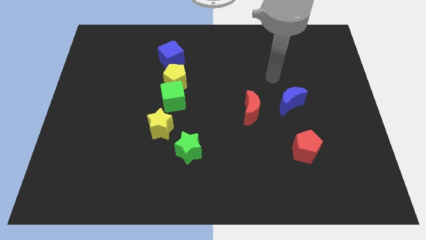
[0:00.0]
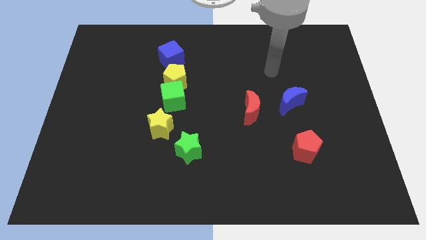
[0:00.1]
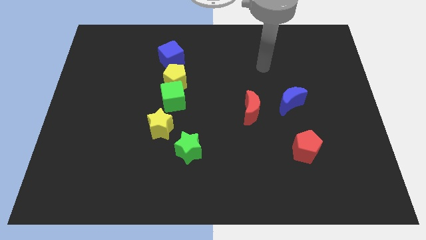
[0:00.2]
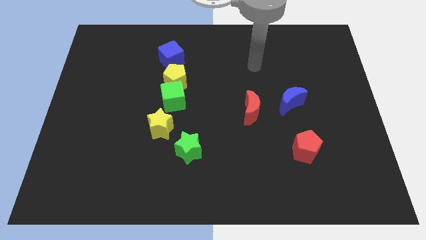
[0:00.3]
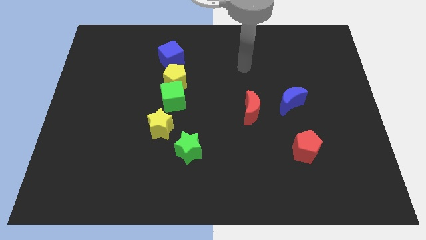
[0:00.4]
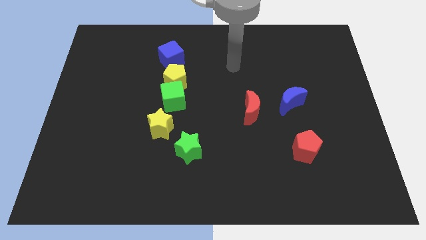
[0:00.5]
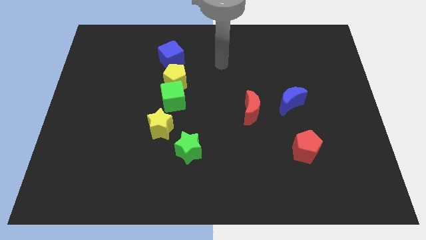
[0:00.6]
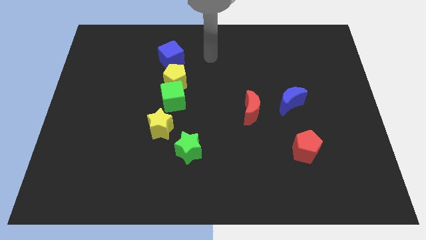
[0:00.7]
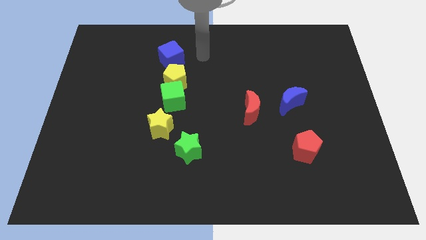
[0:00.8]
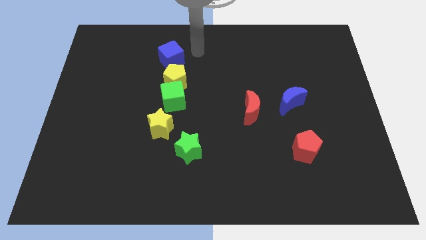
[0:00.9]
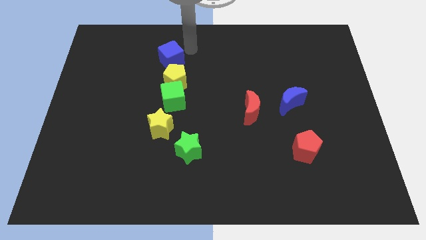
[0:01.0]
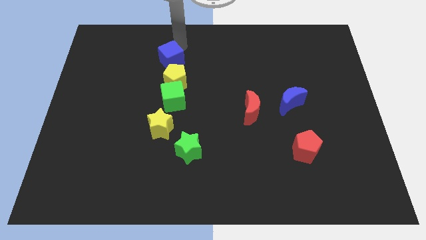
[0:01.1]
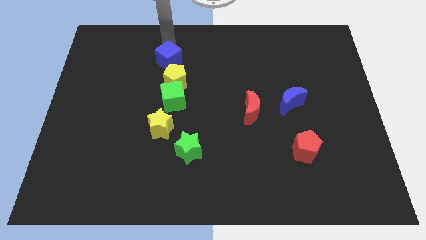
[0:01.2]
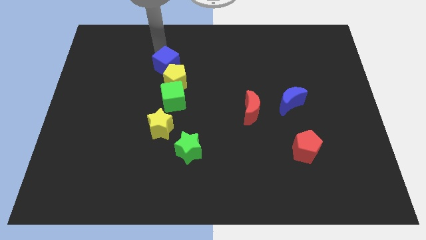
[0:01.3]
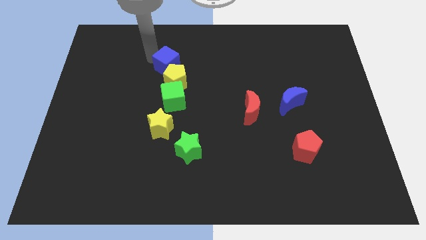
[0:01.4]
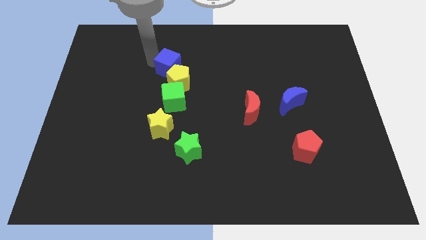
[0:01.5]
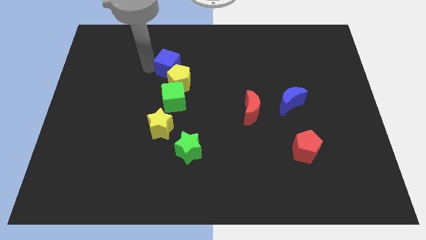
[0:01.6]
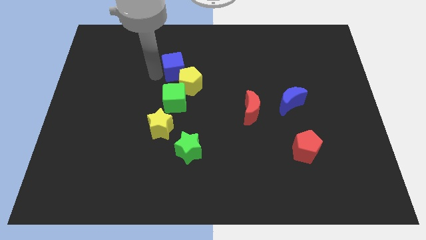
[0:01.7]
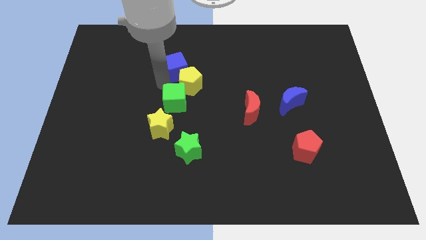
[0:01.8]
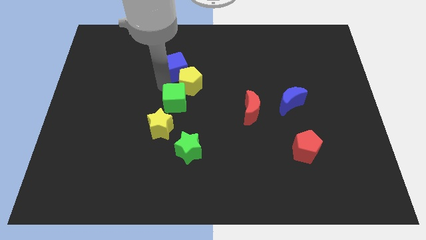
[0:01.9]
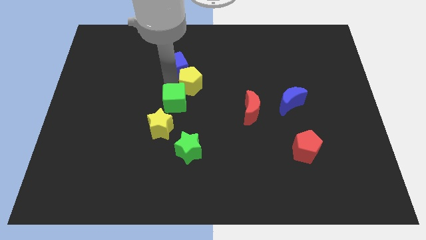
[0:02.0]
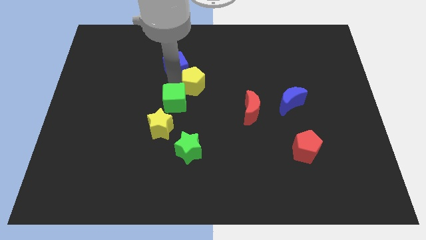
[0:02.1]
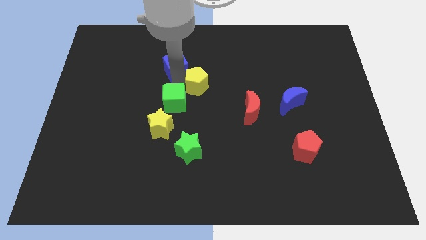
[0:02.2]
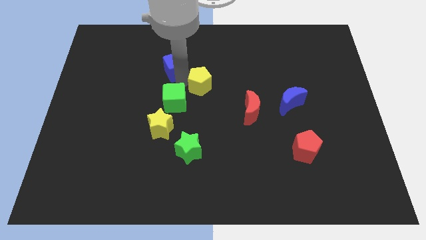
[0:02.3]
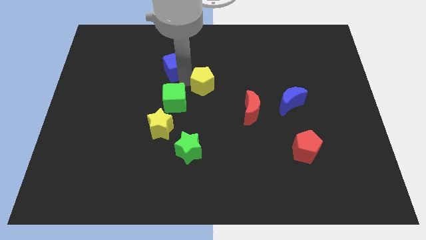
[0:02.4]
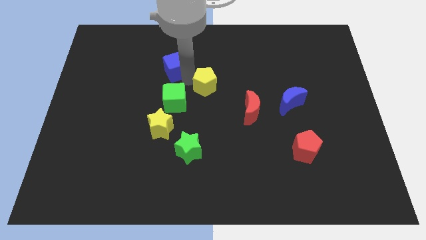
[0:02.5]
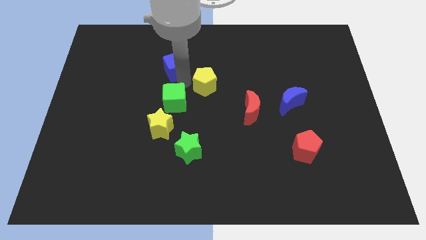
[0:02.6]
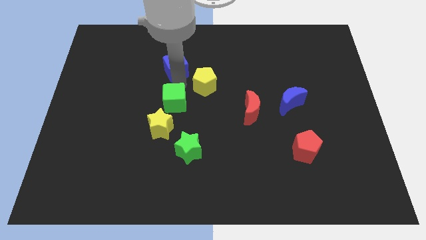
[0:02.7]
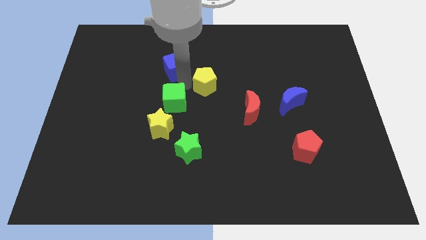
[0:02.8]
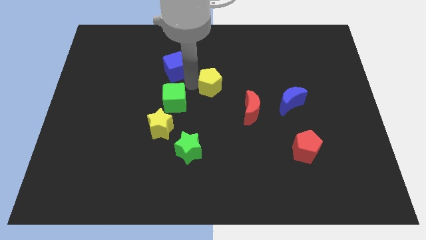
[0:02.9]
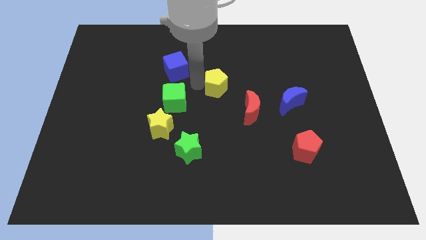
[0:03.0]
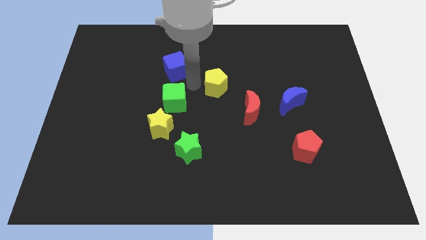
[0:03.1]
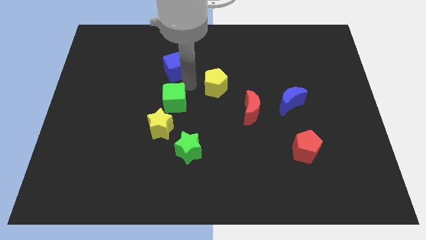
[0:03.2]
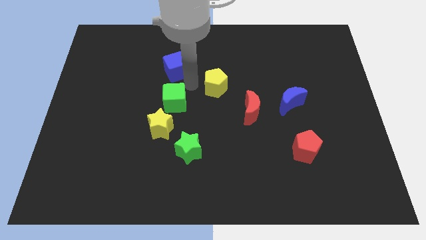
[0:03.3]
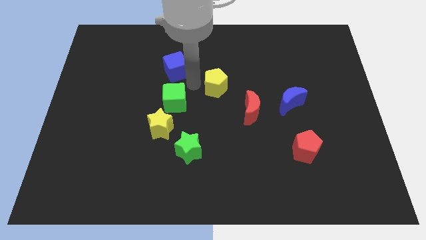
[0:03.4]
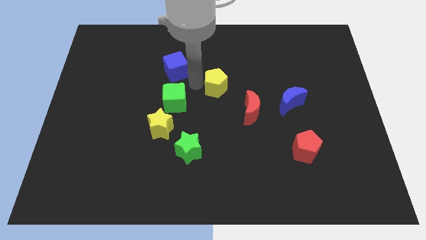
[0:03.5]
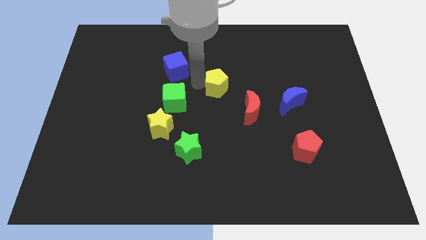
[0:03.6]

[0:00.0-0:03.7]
pull the yellow pentagon apart from the green cube and blue cube

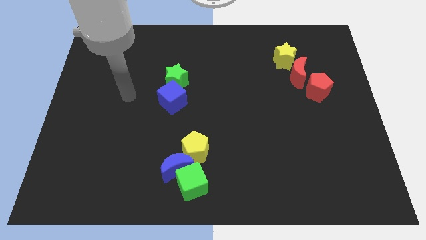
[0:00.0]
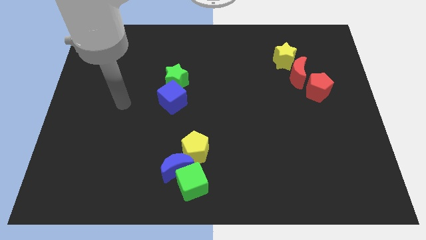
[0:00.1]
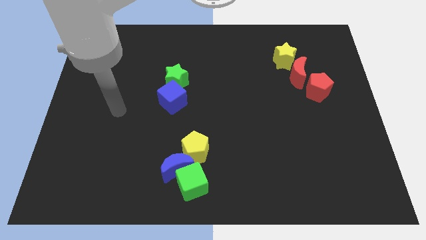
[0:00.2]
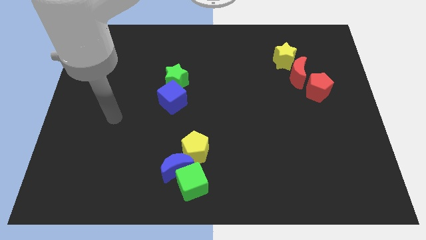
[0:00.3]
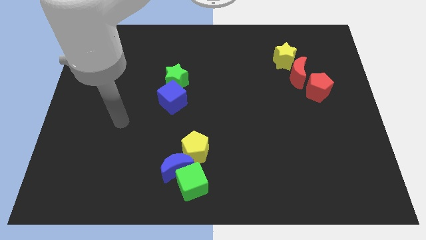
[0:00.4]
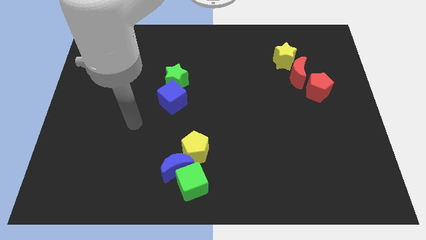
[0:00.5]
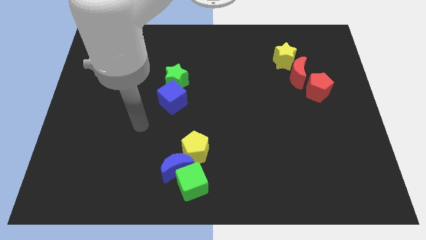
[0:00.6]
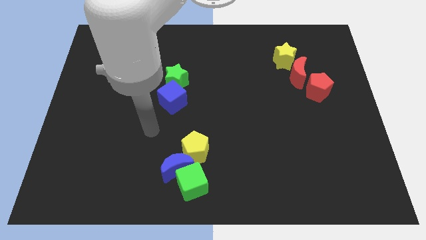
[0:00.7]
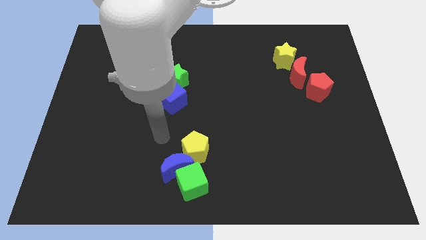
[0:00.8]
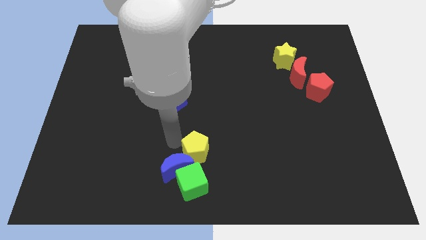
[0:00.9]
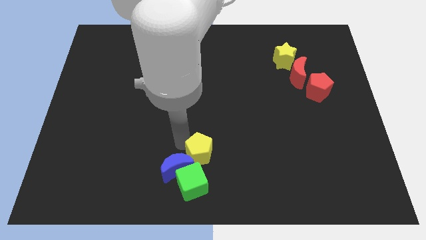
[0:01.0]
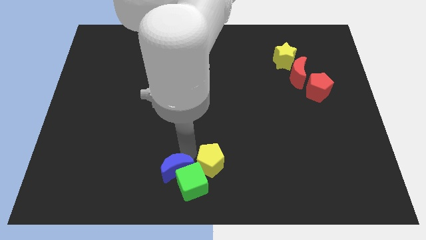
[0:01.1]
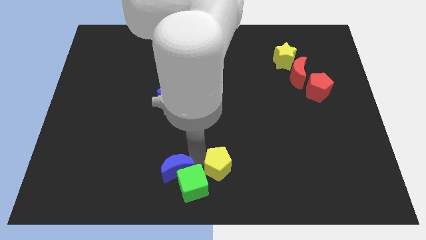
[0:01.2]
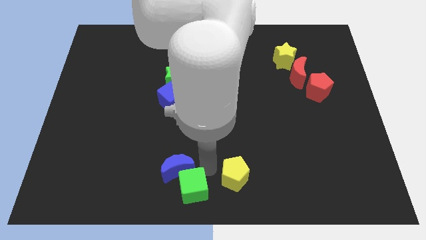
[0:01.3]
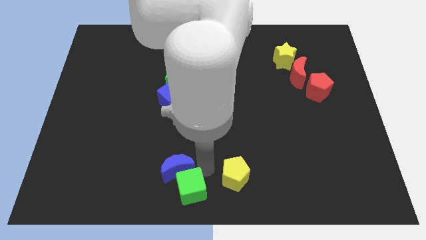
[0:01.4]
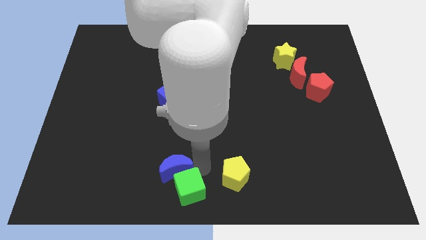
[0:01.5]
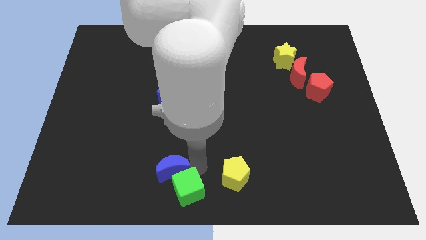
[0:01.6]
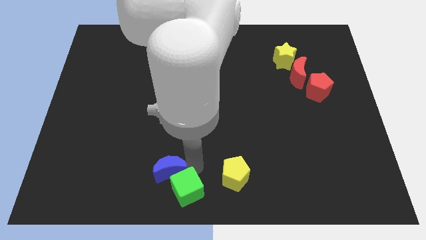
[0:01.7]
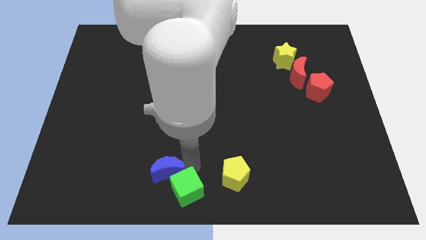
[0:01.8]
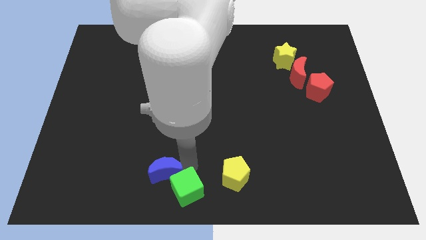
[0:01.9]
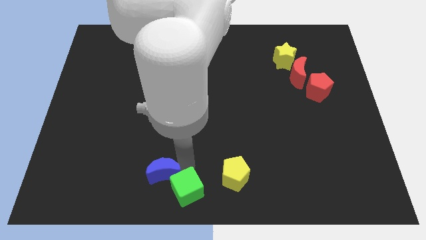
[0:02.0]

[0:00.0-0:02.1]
separate the blue moon from the green cube and yellow pentagon

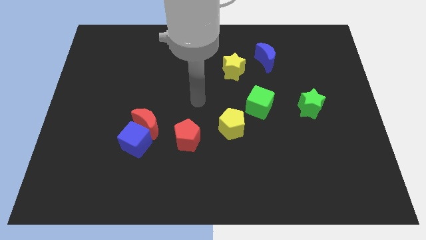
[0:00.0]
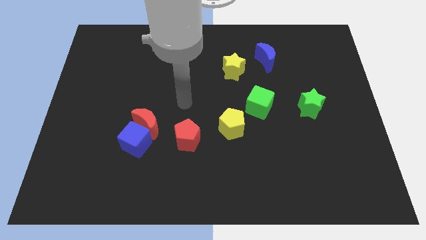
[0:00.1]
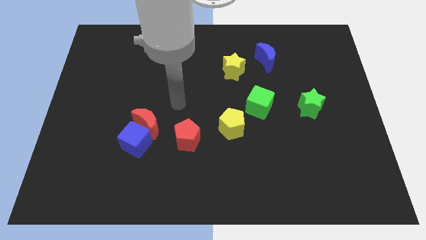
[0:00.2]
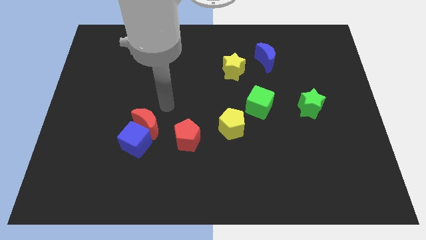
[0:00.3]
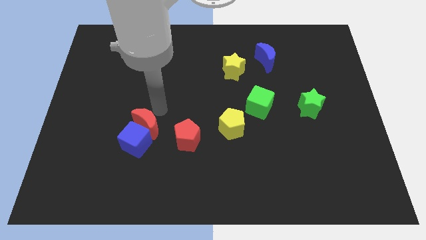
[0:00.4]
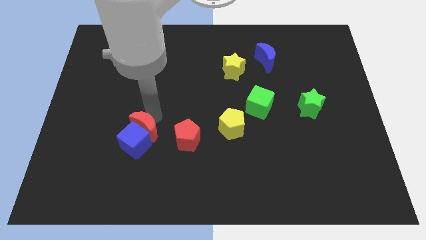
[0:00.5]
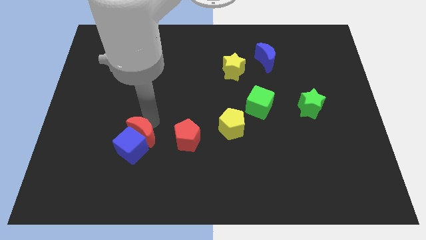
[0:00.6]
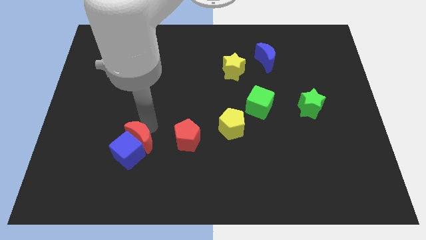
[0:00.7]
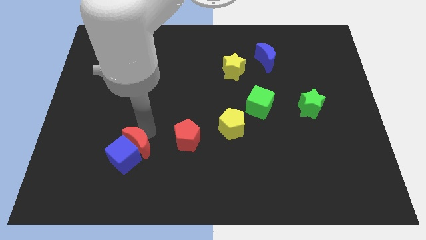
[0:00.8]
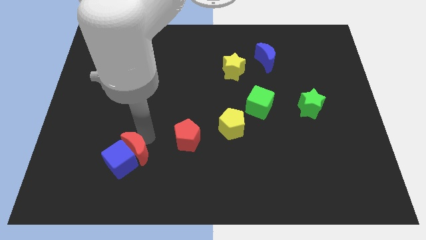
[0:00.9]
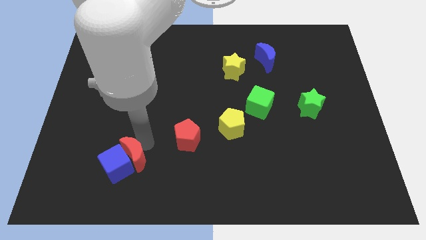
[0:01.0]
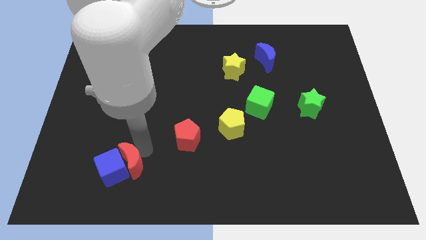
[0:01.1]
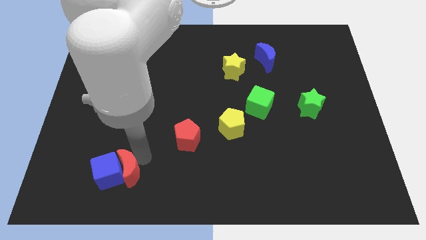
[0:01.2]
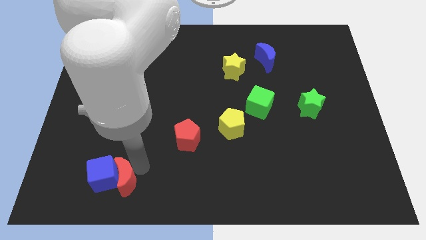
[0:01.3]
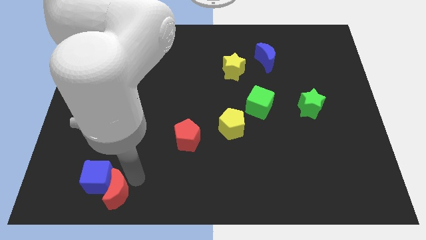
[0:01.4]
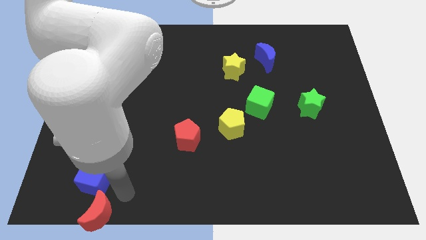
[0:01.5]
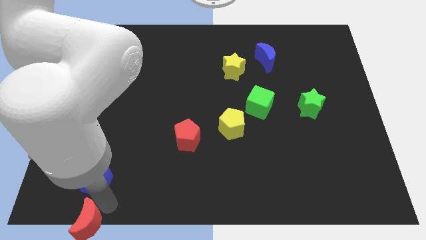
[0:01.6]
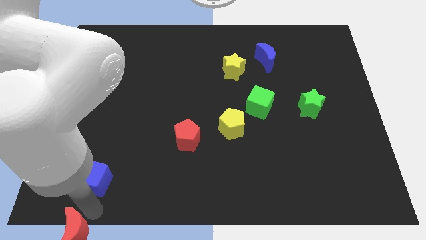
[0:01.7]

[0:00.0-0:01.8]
separate the blue cube from the red moon

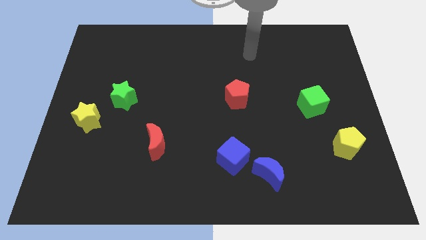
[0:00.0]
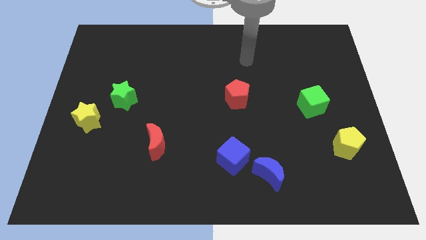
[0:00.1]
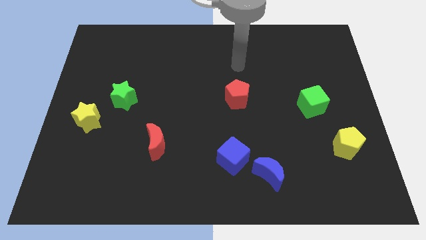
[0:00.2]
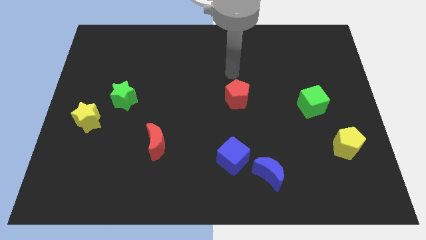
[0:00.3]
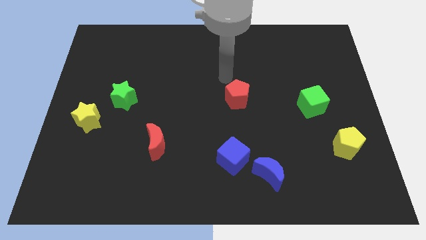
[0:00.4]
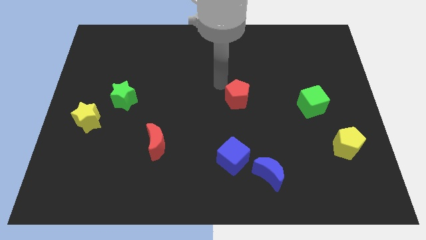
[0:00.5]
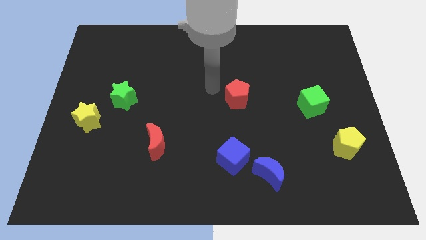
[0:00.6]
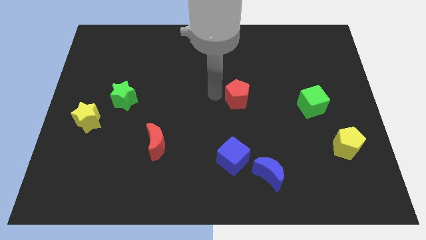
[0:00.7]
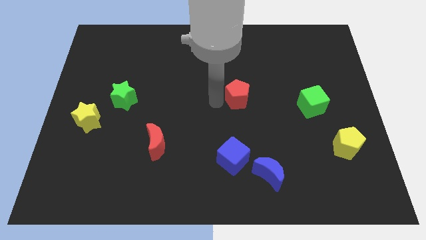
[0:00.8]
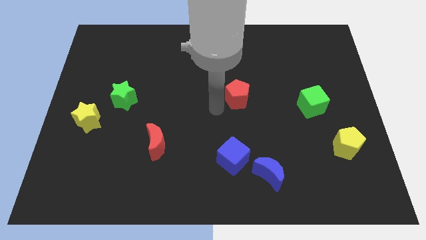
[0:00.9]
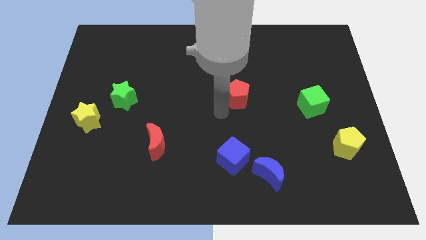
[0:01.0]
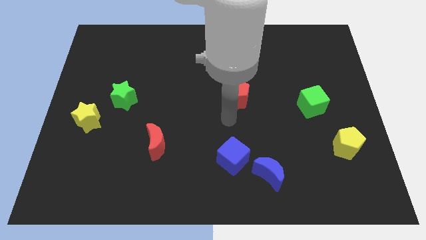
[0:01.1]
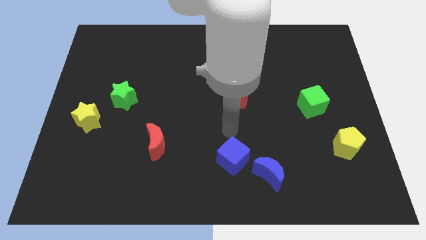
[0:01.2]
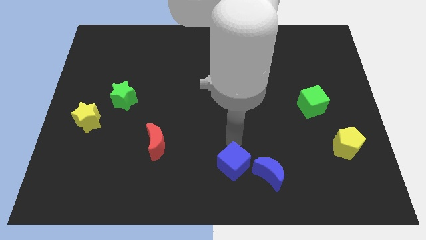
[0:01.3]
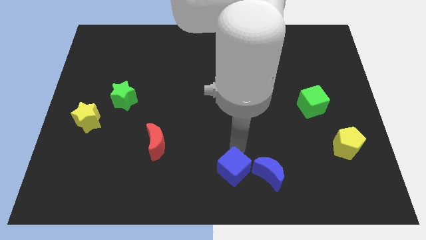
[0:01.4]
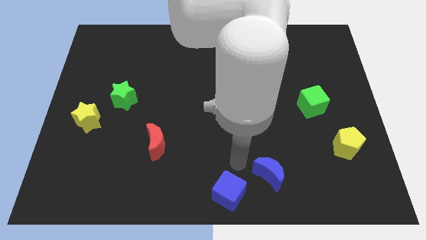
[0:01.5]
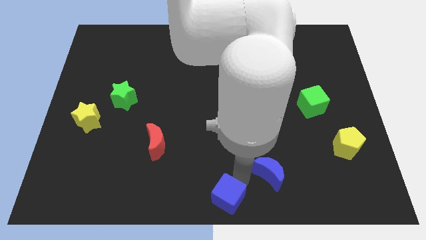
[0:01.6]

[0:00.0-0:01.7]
pull the blue moon apart from the blue cube
